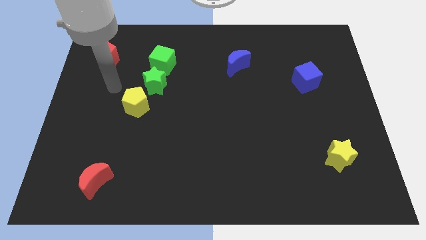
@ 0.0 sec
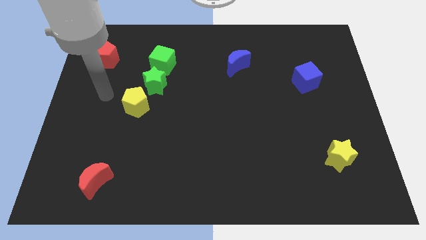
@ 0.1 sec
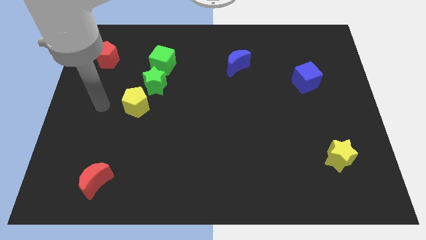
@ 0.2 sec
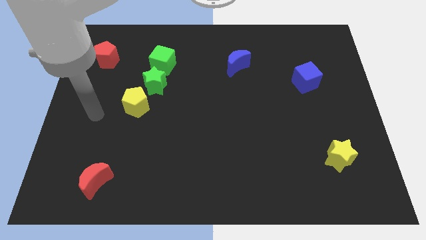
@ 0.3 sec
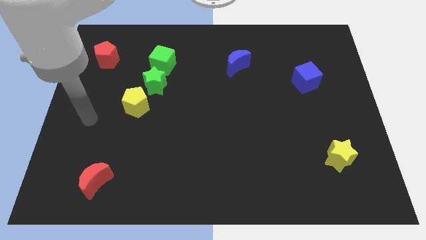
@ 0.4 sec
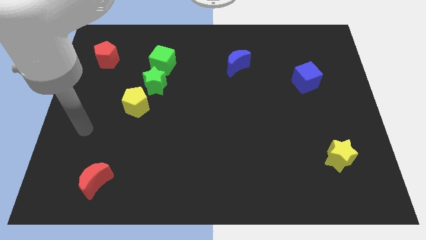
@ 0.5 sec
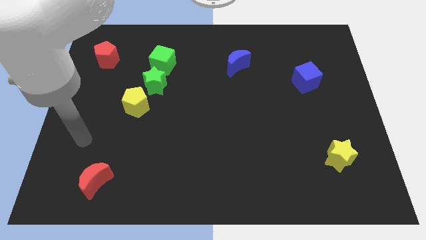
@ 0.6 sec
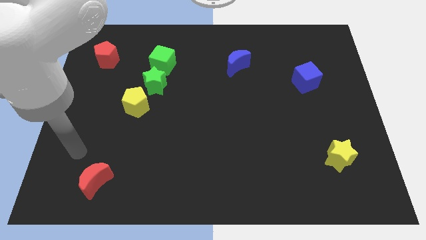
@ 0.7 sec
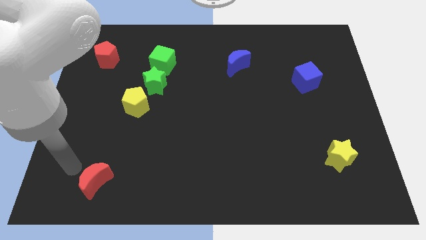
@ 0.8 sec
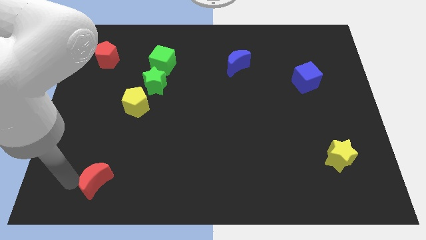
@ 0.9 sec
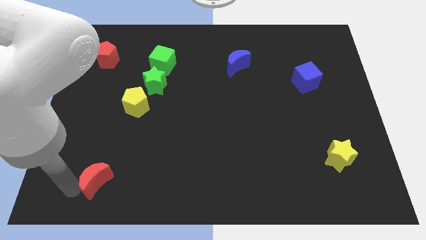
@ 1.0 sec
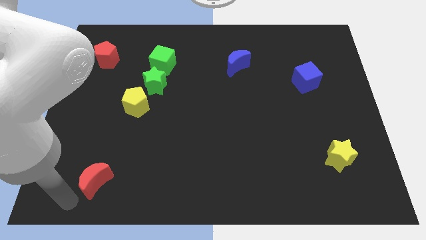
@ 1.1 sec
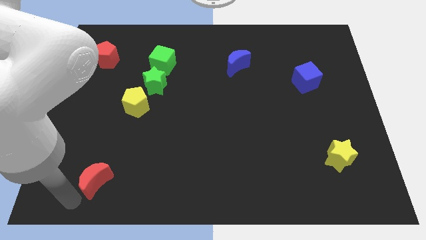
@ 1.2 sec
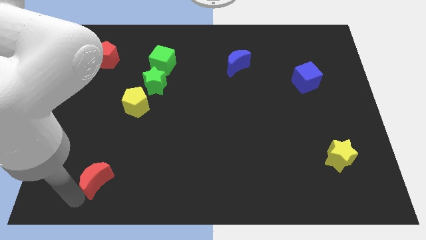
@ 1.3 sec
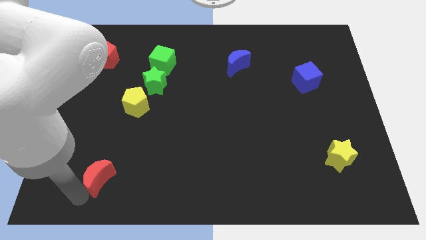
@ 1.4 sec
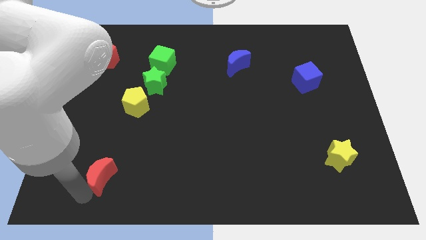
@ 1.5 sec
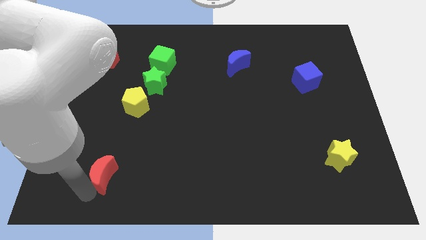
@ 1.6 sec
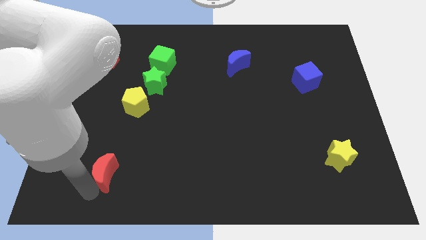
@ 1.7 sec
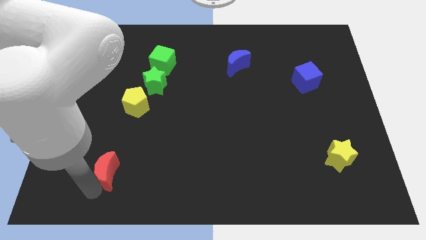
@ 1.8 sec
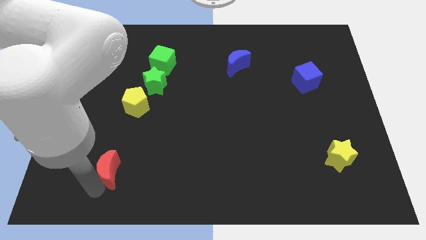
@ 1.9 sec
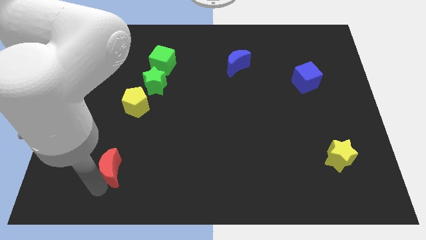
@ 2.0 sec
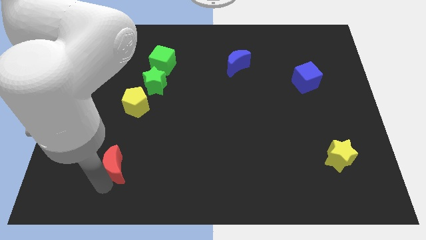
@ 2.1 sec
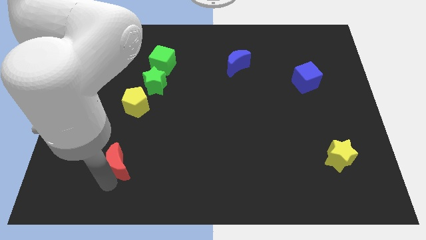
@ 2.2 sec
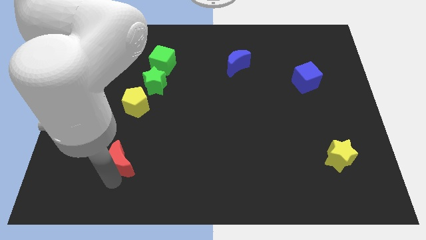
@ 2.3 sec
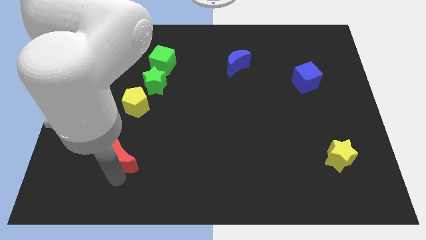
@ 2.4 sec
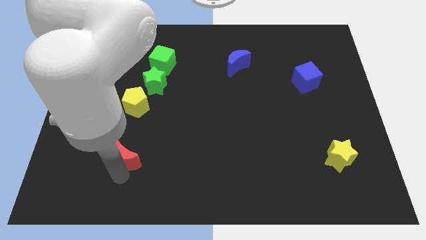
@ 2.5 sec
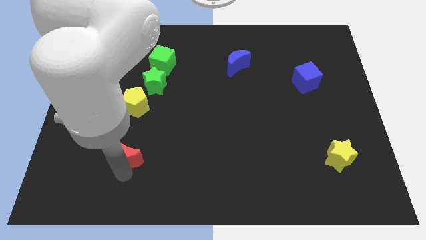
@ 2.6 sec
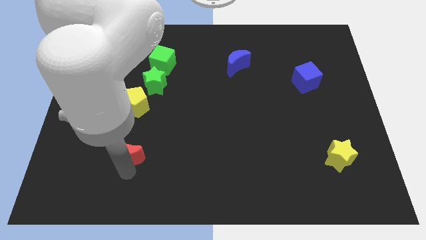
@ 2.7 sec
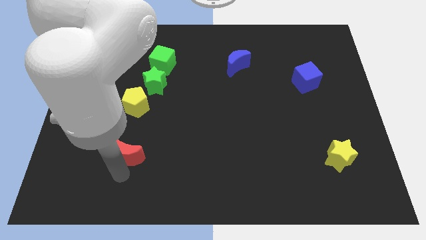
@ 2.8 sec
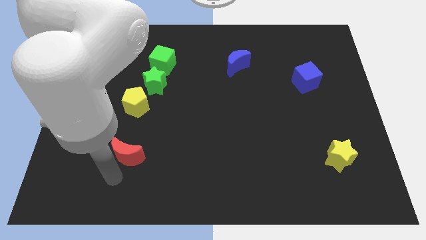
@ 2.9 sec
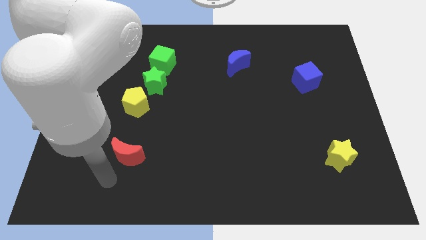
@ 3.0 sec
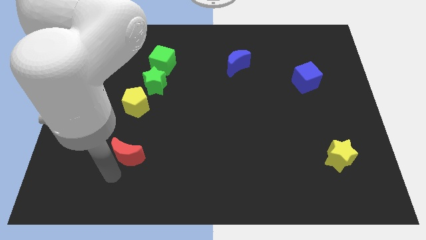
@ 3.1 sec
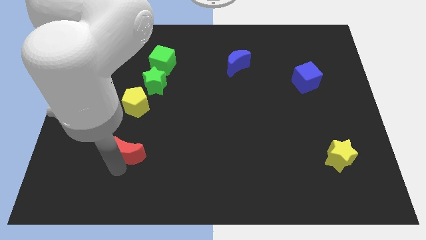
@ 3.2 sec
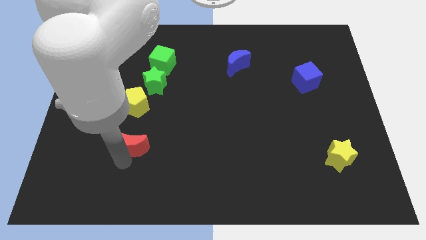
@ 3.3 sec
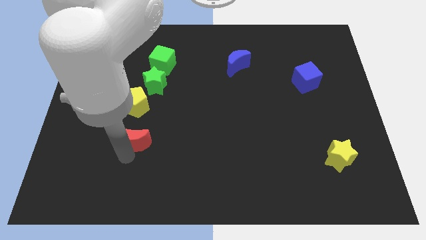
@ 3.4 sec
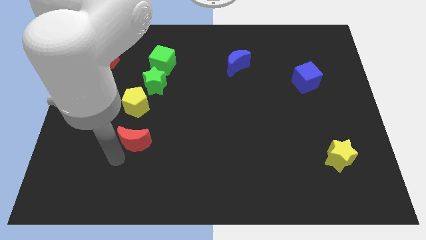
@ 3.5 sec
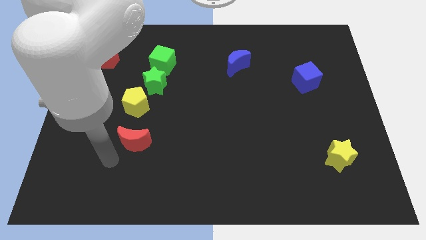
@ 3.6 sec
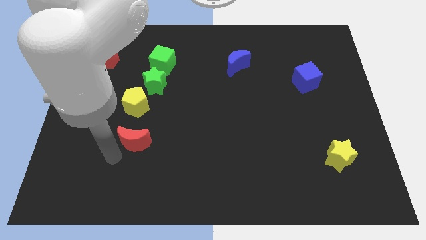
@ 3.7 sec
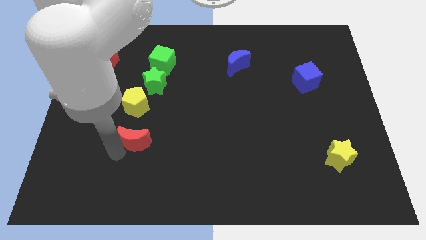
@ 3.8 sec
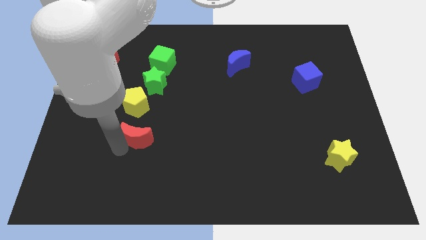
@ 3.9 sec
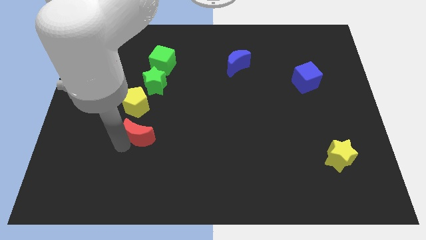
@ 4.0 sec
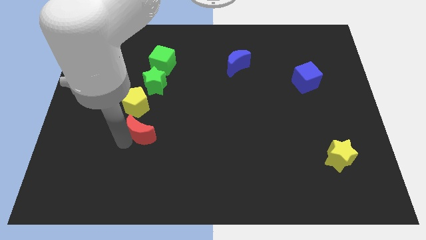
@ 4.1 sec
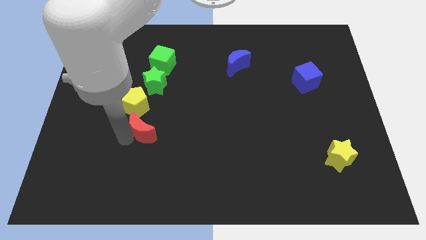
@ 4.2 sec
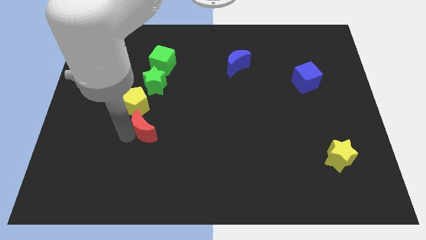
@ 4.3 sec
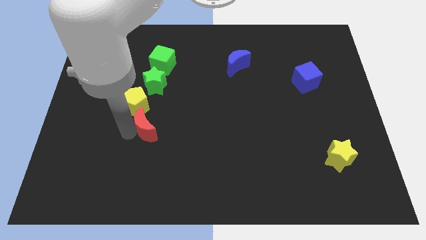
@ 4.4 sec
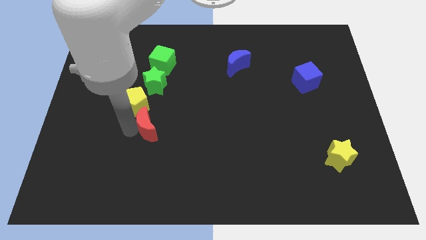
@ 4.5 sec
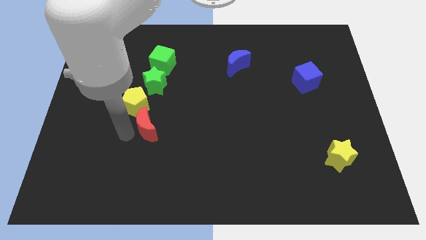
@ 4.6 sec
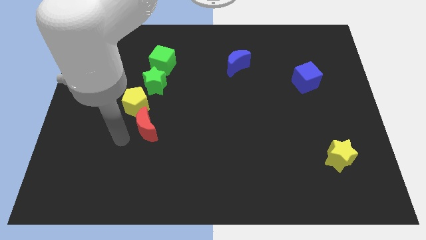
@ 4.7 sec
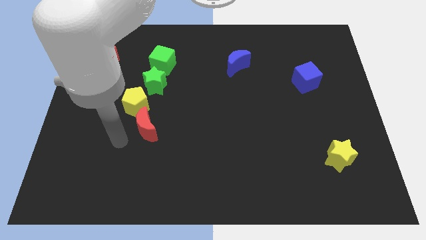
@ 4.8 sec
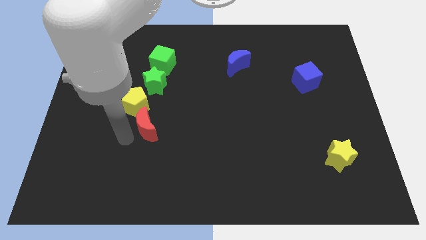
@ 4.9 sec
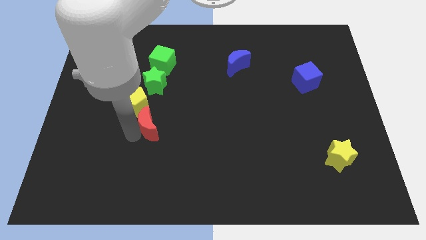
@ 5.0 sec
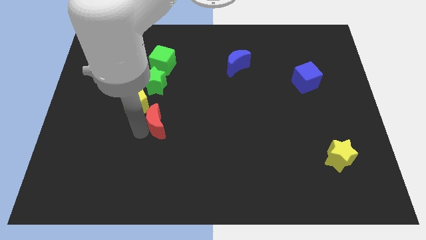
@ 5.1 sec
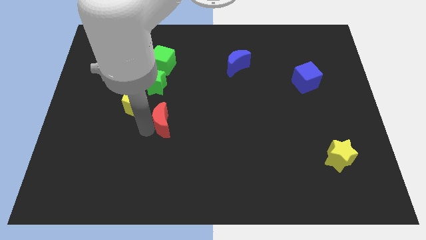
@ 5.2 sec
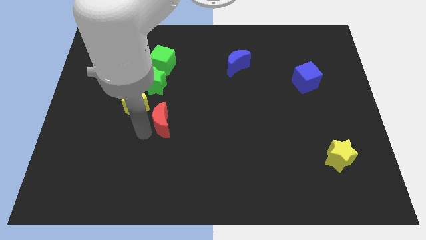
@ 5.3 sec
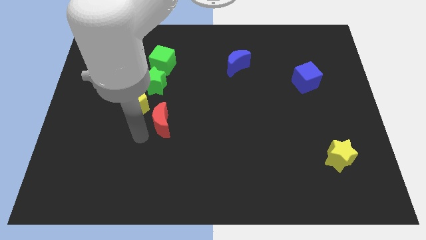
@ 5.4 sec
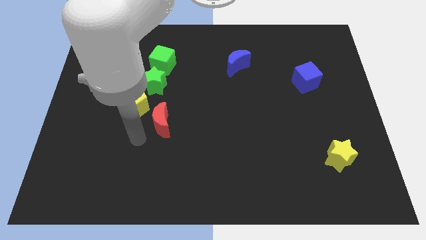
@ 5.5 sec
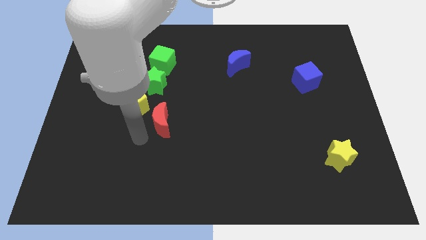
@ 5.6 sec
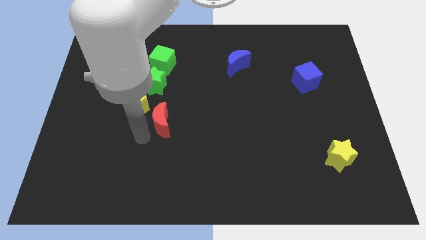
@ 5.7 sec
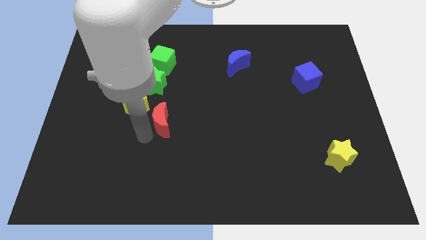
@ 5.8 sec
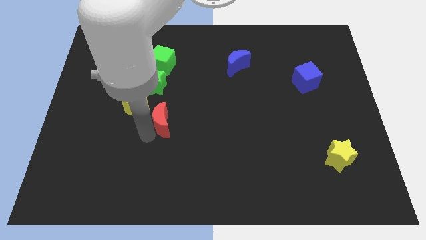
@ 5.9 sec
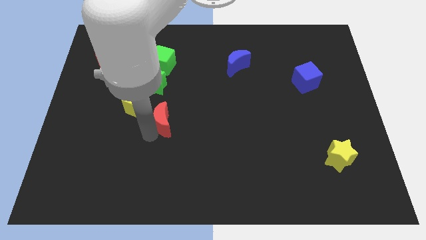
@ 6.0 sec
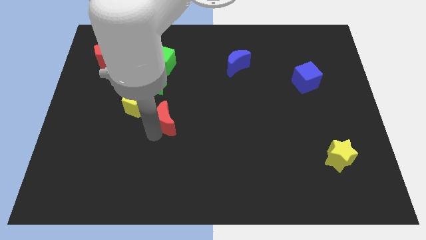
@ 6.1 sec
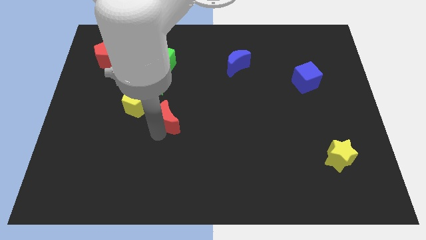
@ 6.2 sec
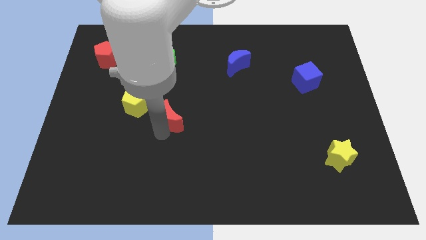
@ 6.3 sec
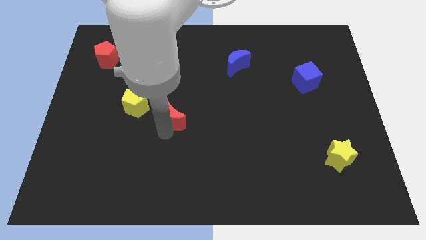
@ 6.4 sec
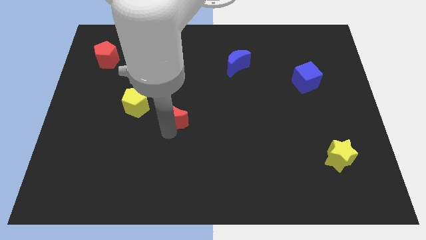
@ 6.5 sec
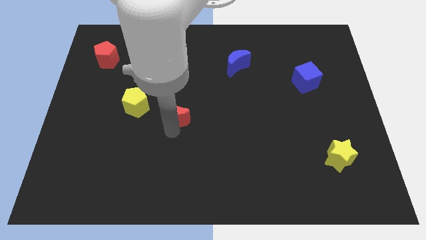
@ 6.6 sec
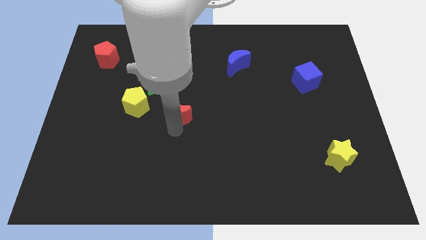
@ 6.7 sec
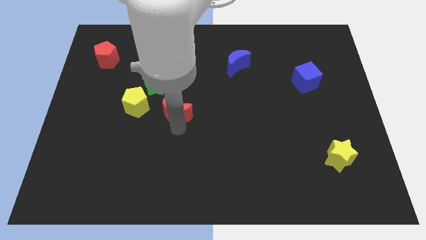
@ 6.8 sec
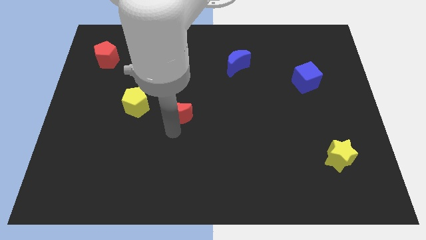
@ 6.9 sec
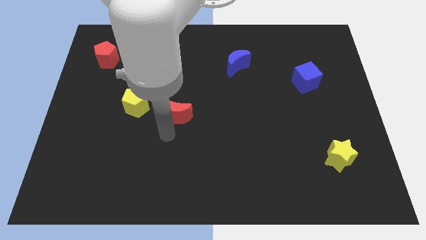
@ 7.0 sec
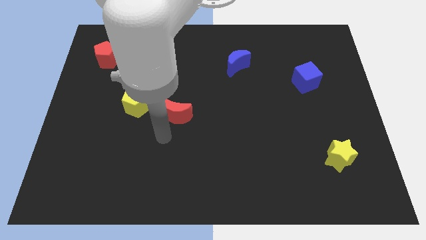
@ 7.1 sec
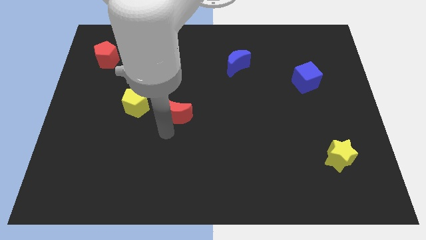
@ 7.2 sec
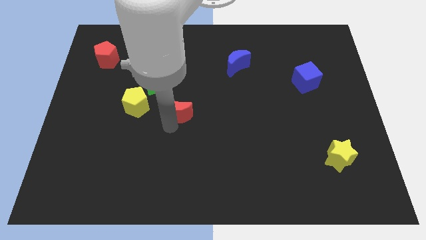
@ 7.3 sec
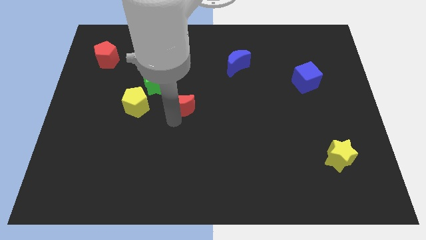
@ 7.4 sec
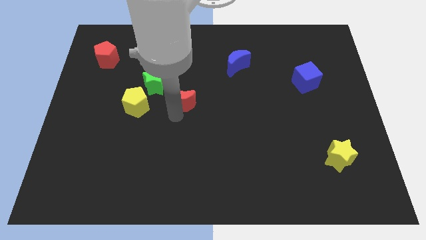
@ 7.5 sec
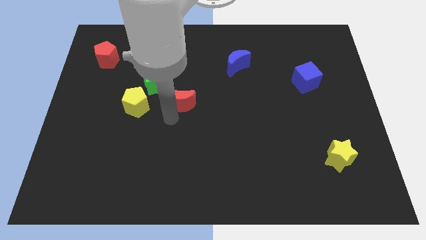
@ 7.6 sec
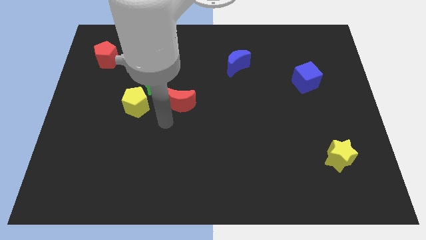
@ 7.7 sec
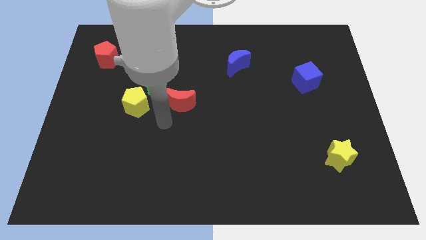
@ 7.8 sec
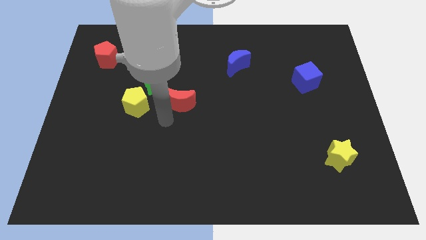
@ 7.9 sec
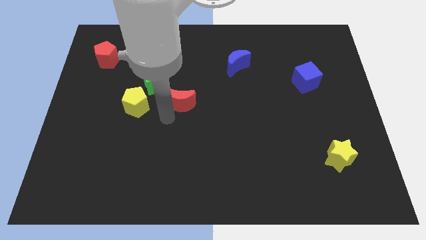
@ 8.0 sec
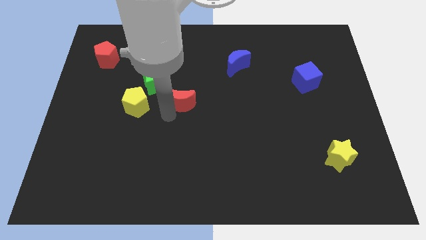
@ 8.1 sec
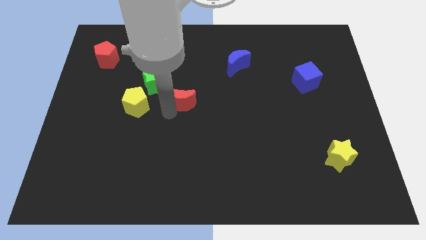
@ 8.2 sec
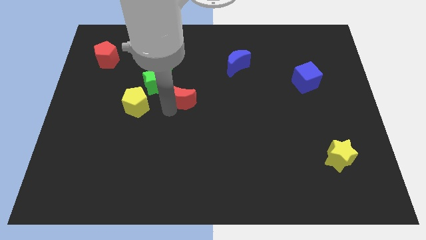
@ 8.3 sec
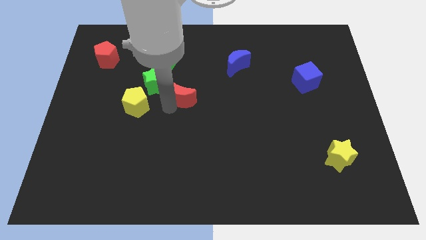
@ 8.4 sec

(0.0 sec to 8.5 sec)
push the red moon just right of the green star
